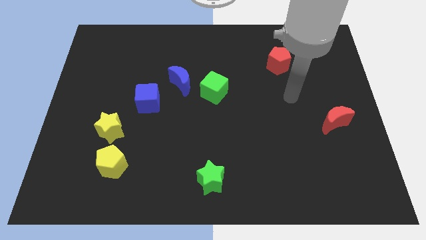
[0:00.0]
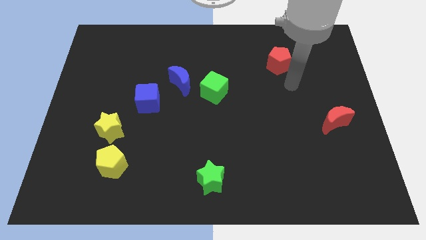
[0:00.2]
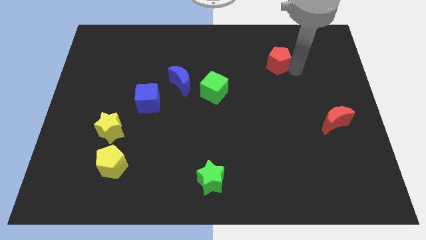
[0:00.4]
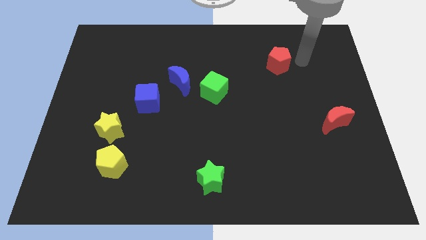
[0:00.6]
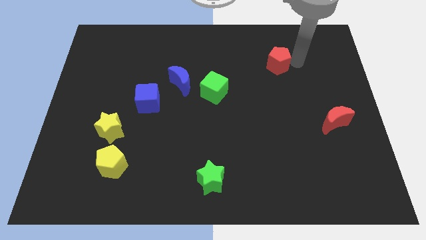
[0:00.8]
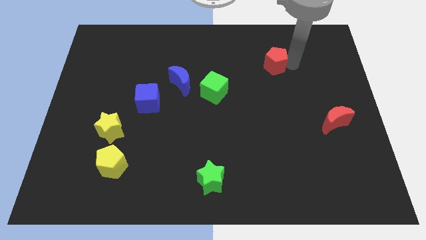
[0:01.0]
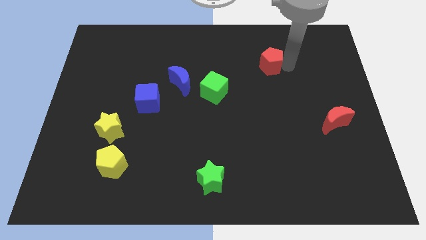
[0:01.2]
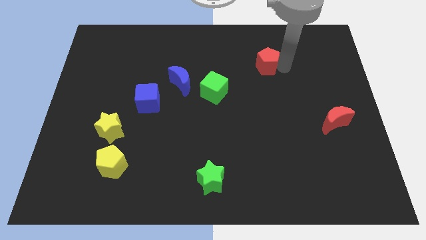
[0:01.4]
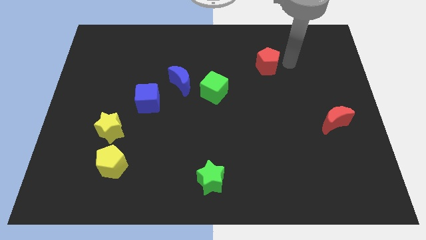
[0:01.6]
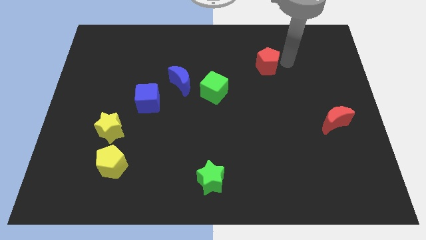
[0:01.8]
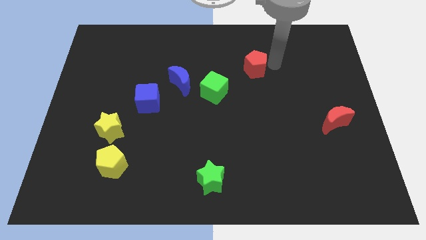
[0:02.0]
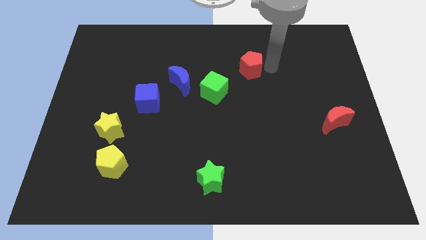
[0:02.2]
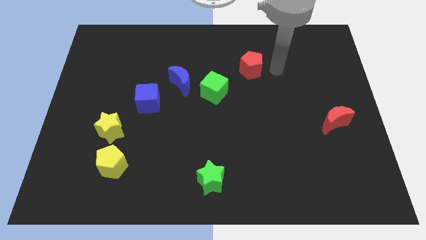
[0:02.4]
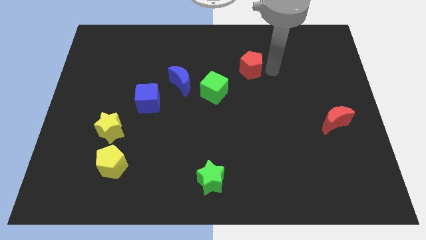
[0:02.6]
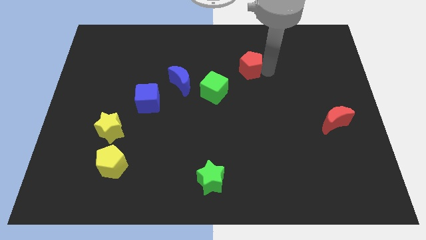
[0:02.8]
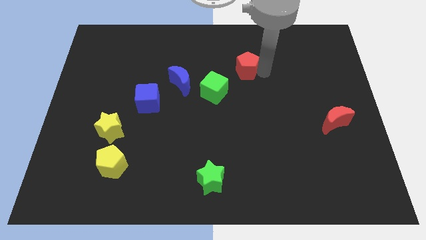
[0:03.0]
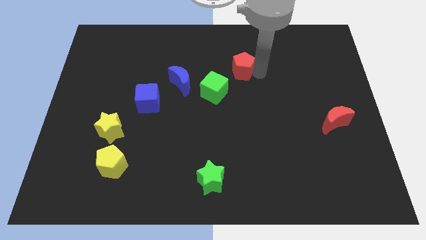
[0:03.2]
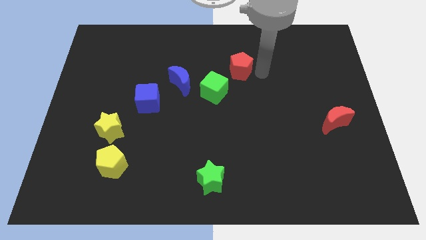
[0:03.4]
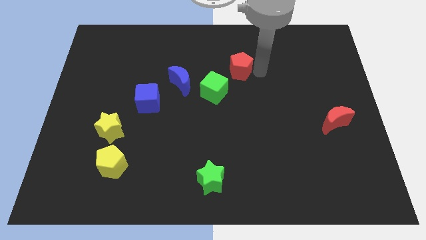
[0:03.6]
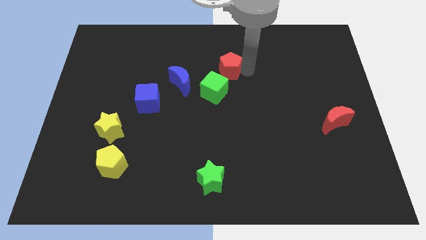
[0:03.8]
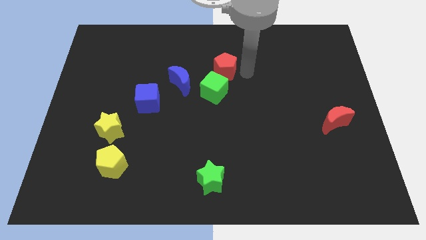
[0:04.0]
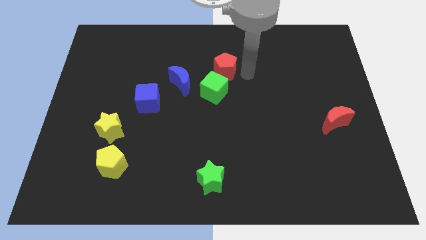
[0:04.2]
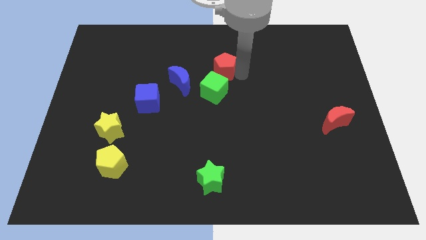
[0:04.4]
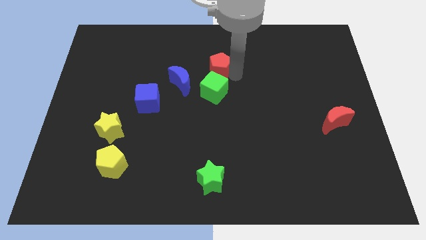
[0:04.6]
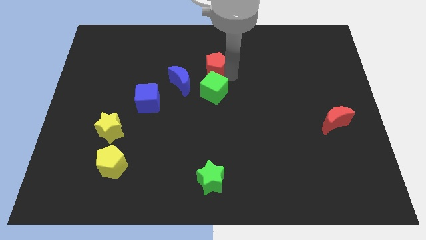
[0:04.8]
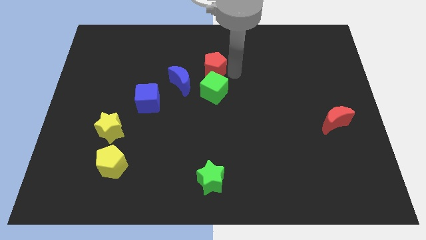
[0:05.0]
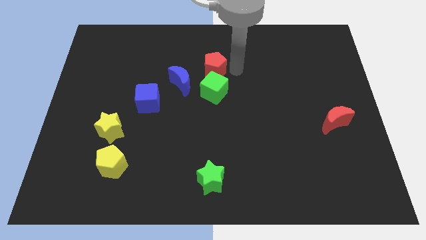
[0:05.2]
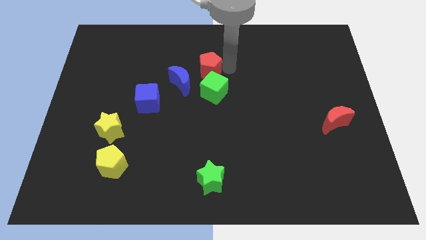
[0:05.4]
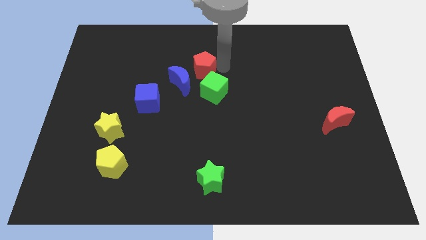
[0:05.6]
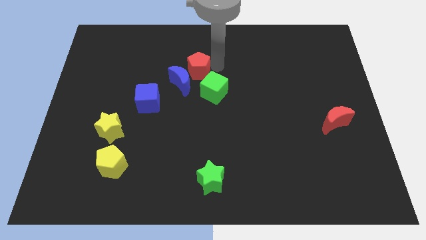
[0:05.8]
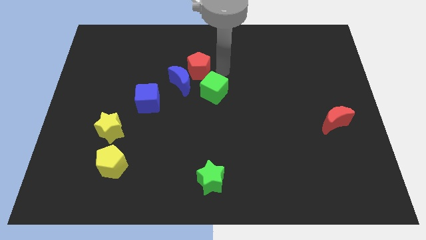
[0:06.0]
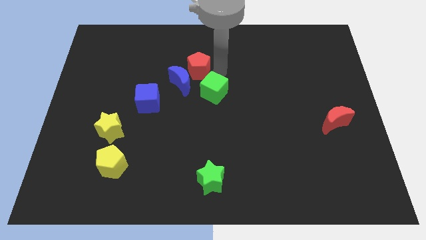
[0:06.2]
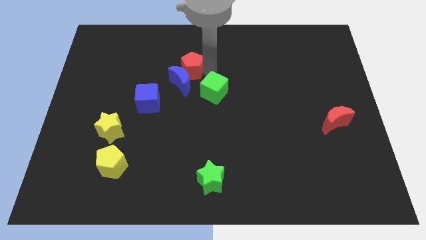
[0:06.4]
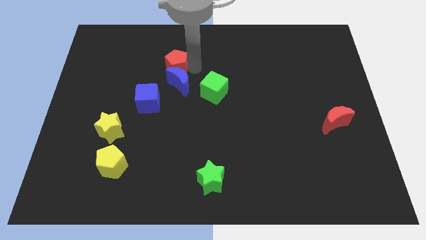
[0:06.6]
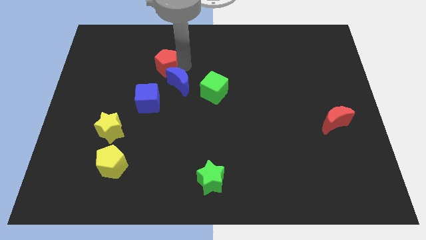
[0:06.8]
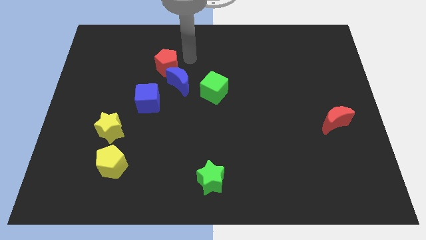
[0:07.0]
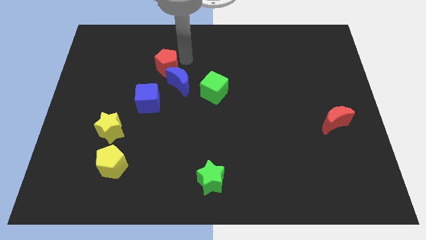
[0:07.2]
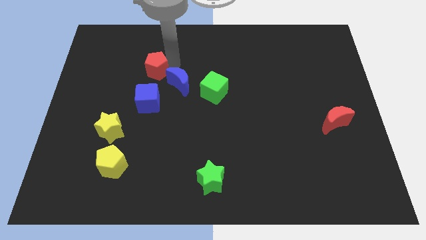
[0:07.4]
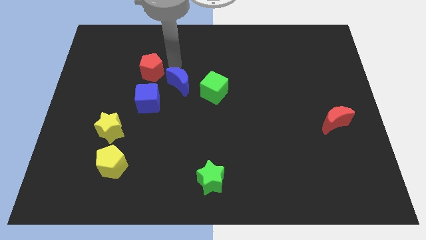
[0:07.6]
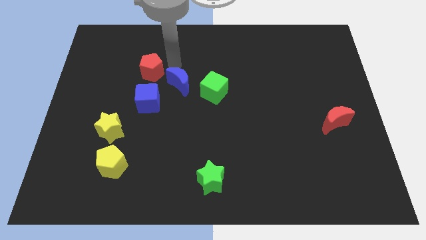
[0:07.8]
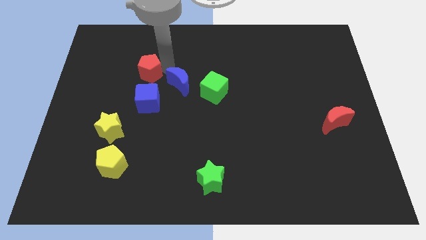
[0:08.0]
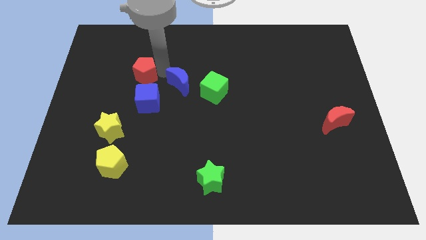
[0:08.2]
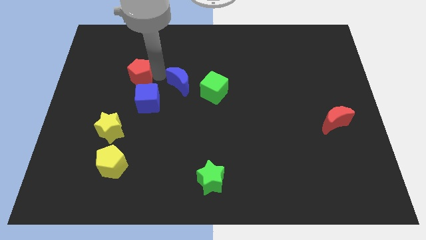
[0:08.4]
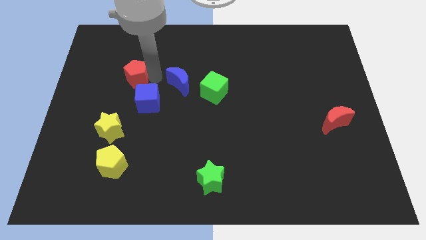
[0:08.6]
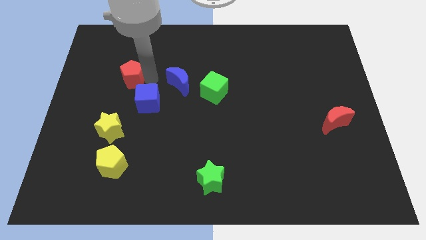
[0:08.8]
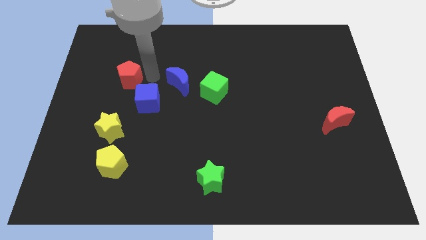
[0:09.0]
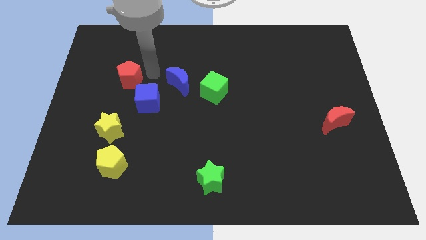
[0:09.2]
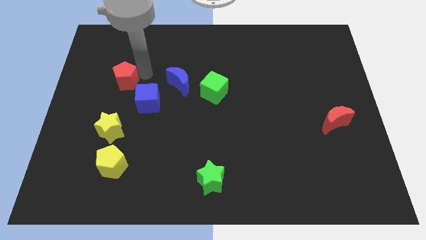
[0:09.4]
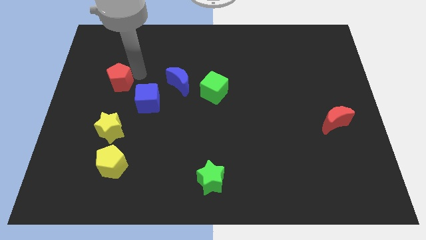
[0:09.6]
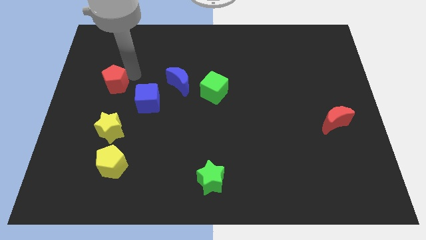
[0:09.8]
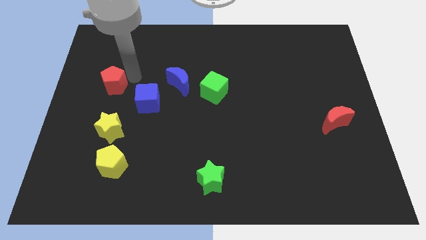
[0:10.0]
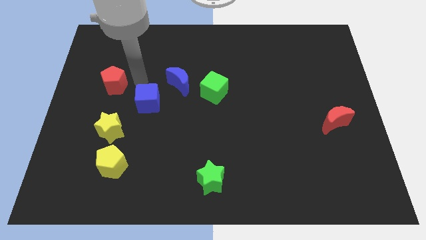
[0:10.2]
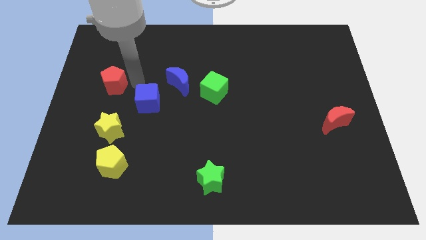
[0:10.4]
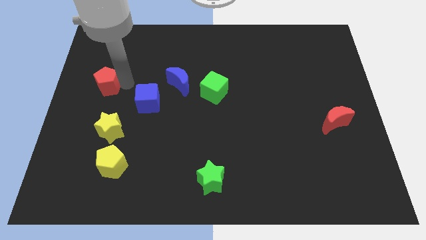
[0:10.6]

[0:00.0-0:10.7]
move the red pentagon to the left side of the board

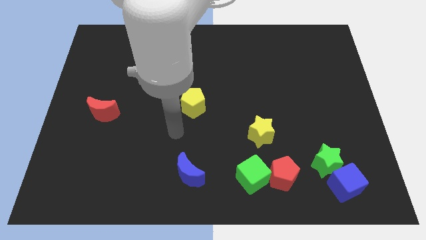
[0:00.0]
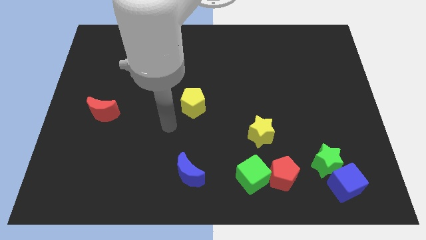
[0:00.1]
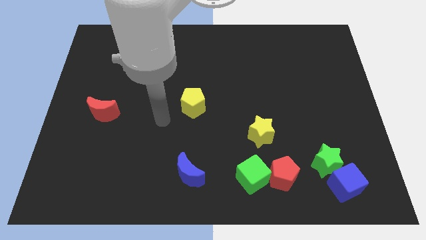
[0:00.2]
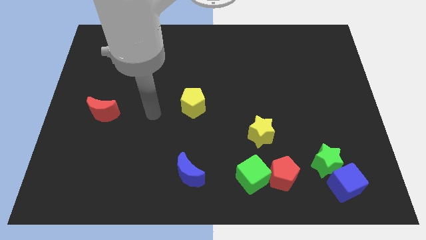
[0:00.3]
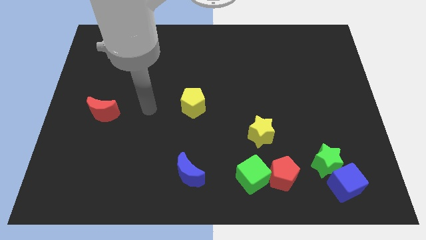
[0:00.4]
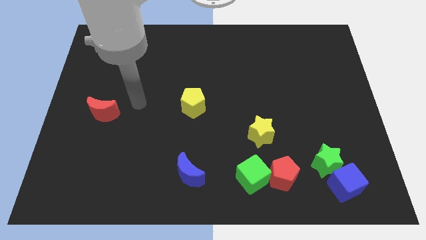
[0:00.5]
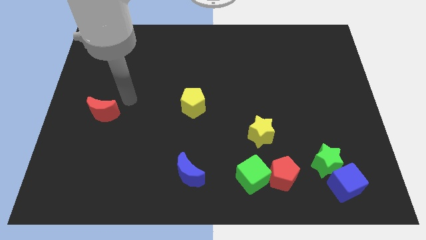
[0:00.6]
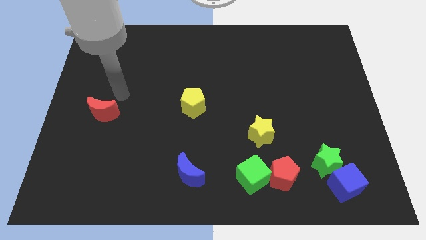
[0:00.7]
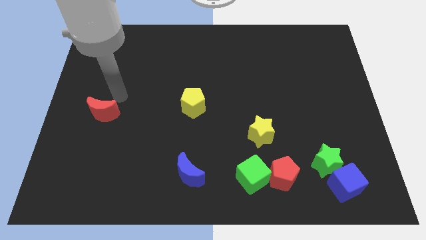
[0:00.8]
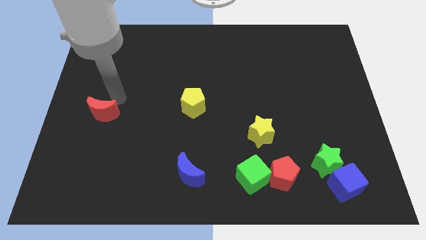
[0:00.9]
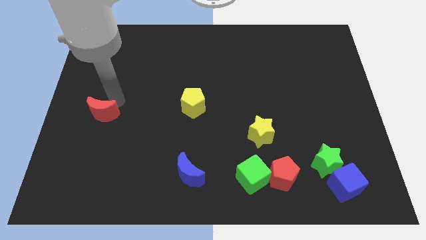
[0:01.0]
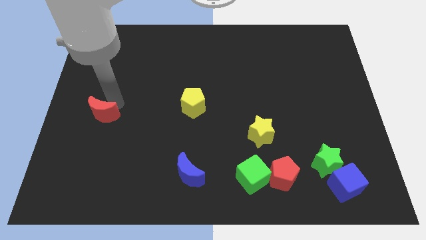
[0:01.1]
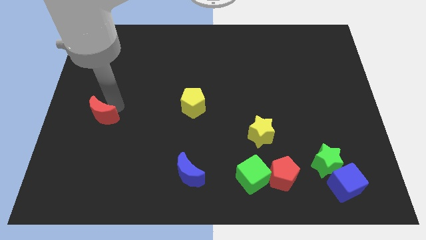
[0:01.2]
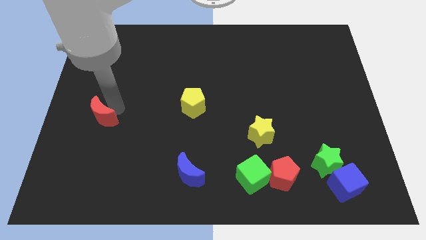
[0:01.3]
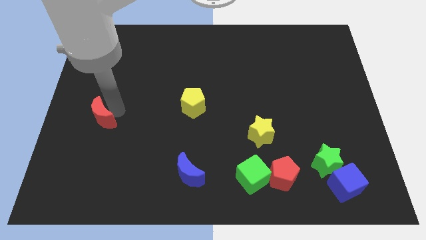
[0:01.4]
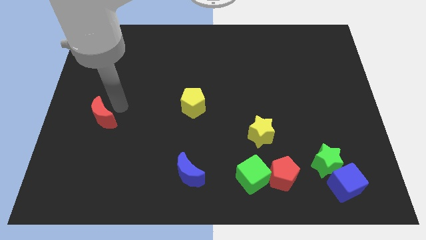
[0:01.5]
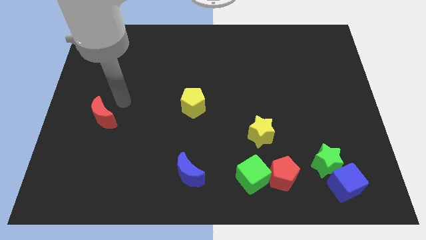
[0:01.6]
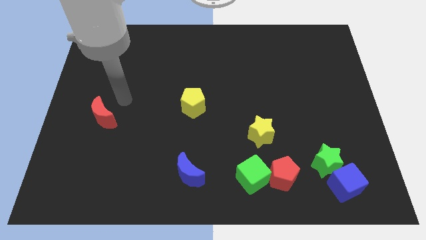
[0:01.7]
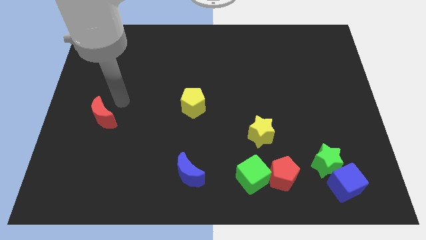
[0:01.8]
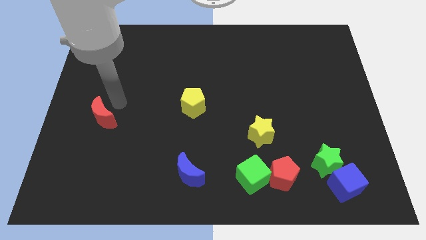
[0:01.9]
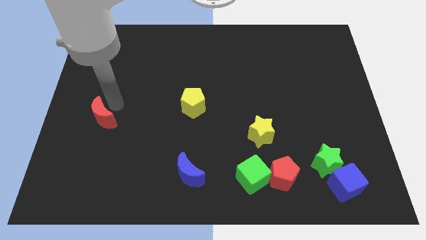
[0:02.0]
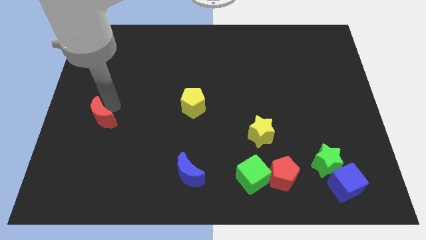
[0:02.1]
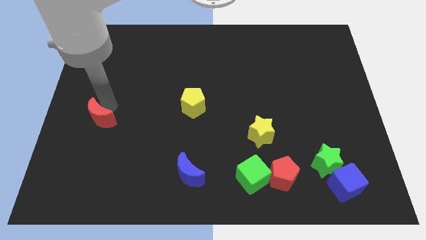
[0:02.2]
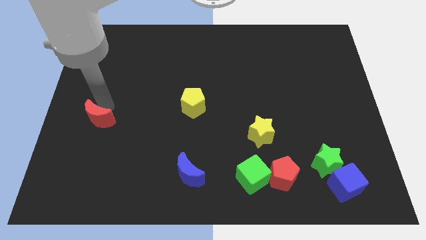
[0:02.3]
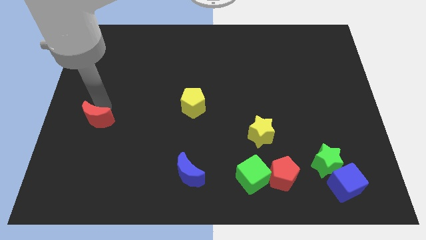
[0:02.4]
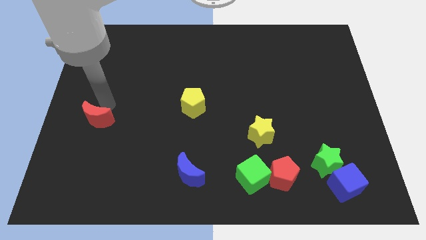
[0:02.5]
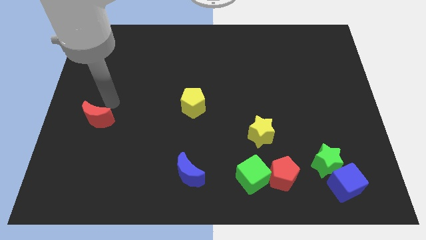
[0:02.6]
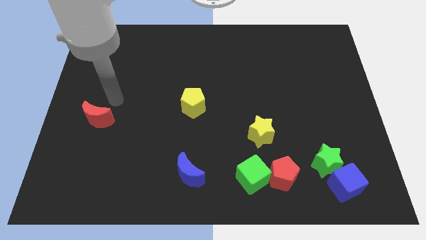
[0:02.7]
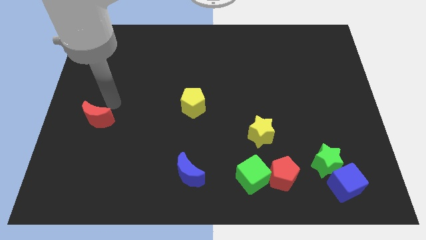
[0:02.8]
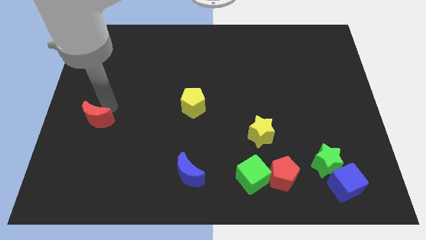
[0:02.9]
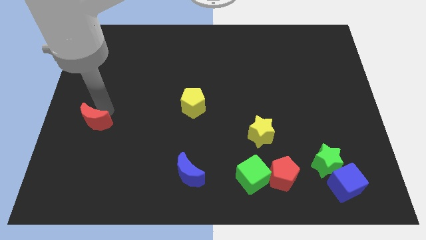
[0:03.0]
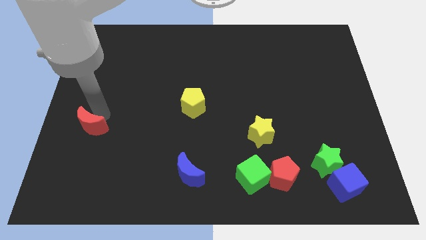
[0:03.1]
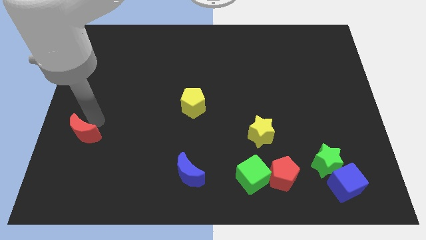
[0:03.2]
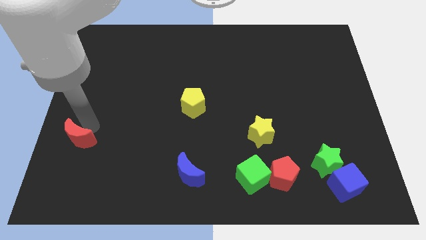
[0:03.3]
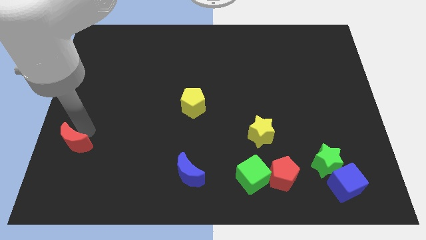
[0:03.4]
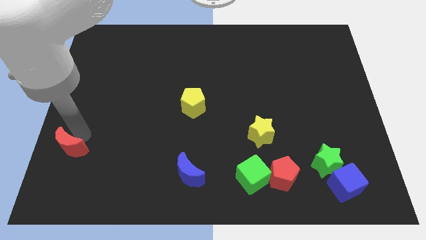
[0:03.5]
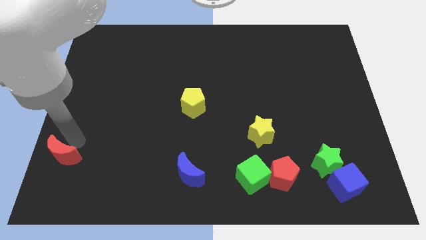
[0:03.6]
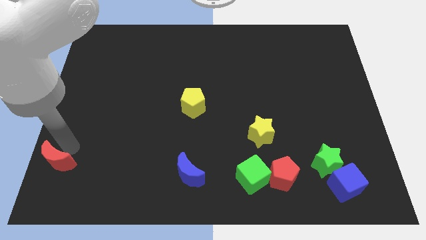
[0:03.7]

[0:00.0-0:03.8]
move the red moon to the bottom left corner
